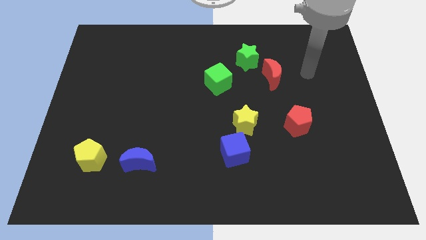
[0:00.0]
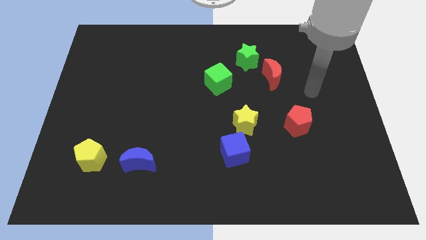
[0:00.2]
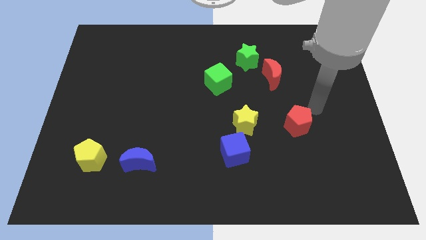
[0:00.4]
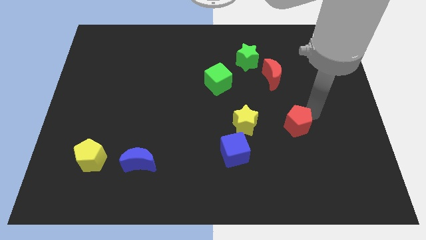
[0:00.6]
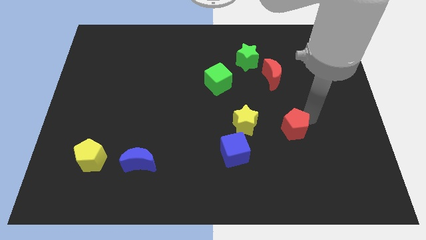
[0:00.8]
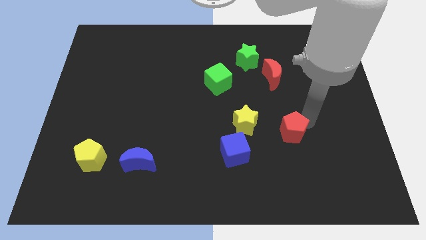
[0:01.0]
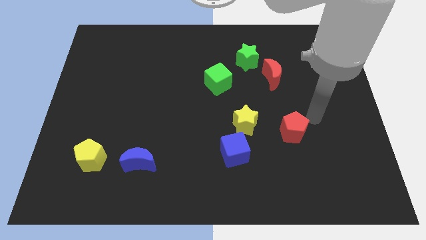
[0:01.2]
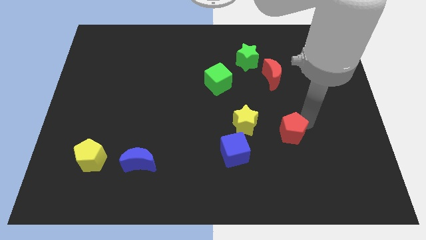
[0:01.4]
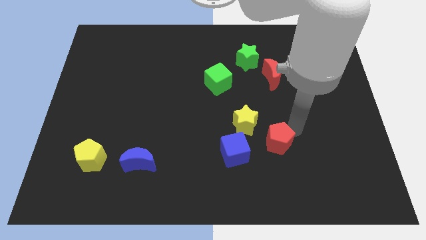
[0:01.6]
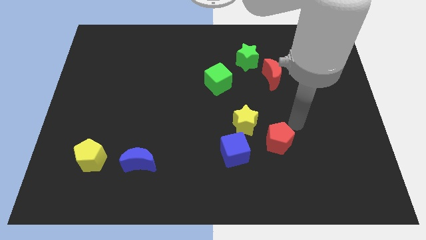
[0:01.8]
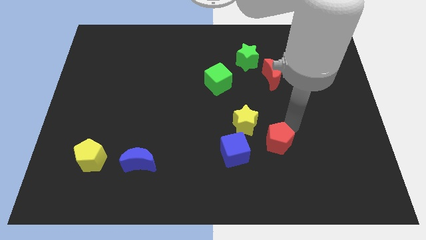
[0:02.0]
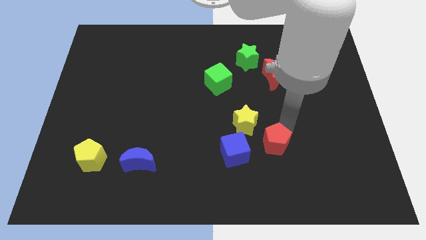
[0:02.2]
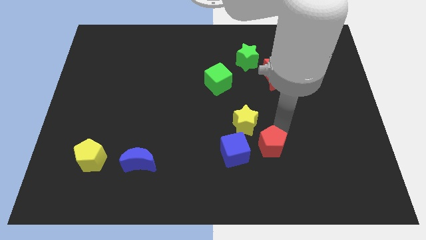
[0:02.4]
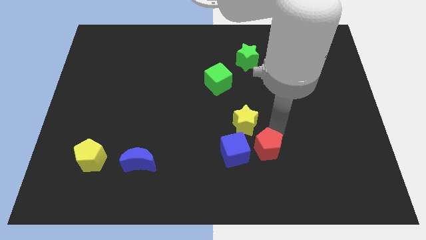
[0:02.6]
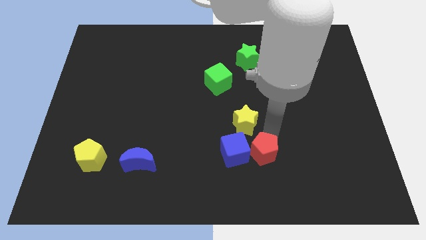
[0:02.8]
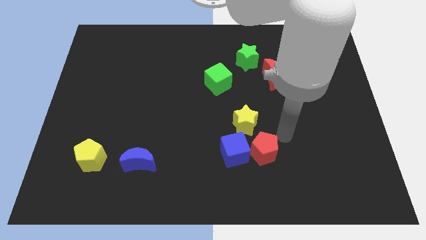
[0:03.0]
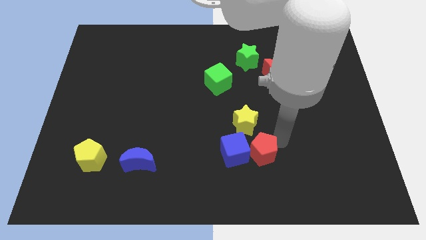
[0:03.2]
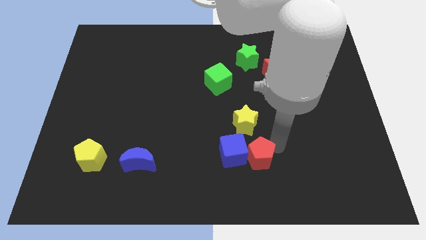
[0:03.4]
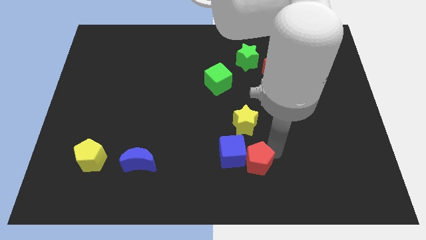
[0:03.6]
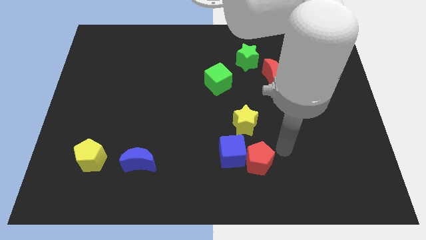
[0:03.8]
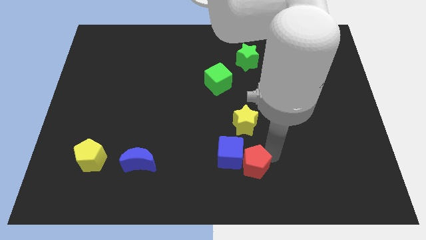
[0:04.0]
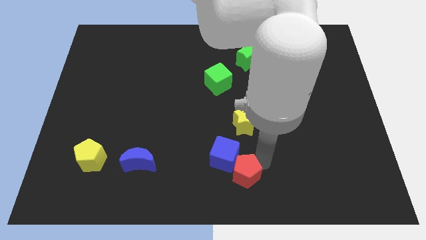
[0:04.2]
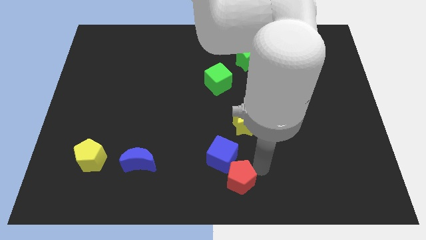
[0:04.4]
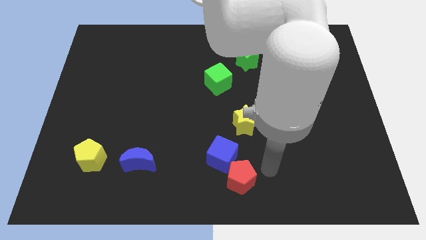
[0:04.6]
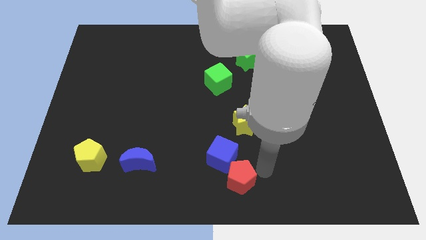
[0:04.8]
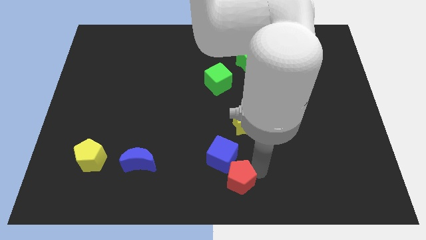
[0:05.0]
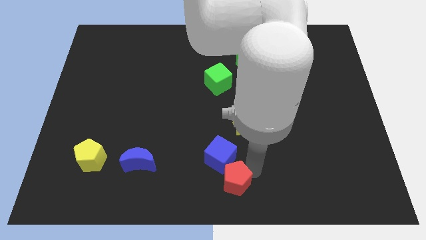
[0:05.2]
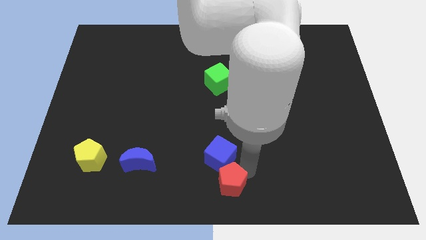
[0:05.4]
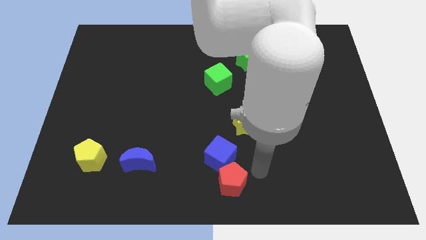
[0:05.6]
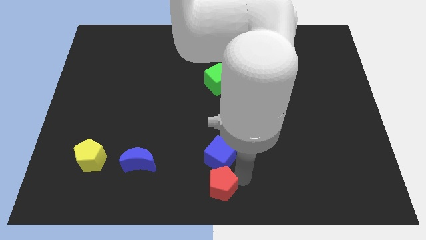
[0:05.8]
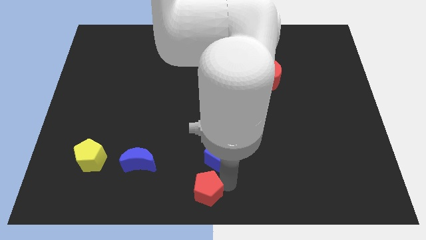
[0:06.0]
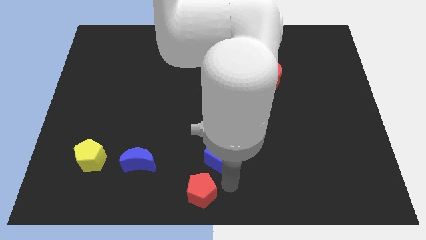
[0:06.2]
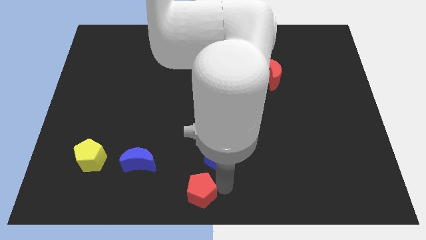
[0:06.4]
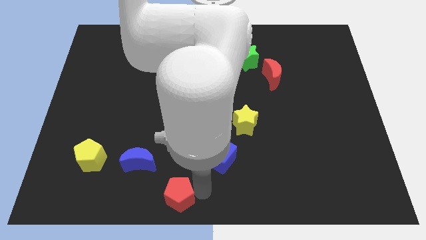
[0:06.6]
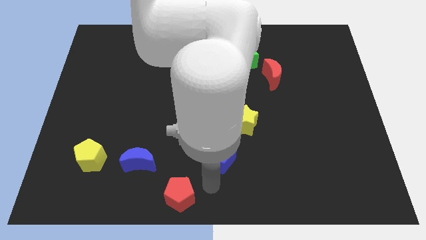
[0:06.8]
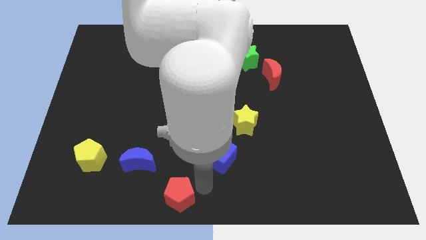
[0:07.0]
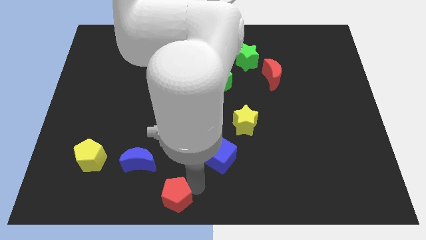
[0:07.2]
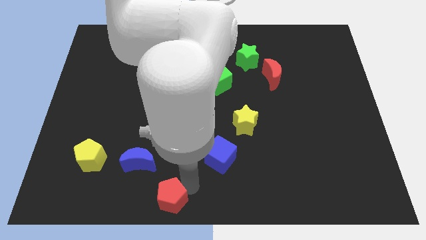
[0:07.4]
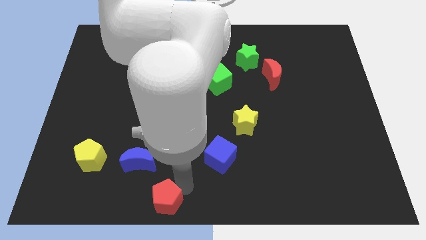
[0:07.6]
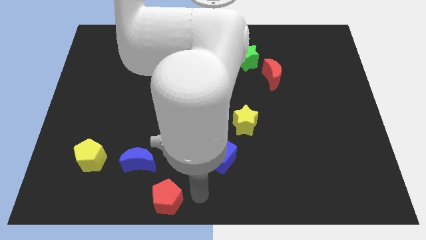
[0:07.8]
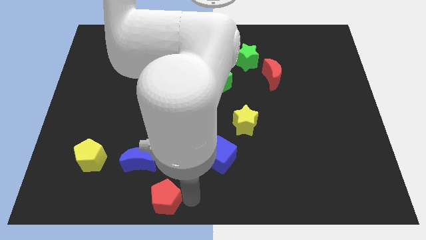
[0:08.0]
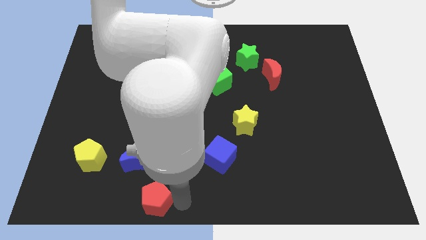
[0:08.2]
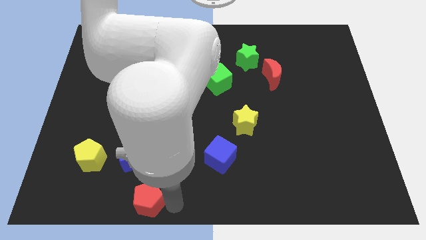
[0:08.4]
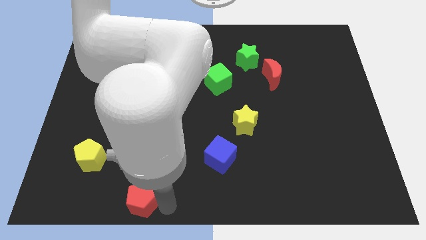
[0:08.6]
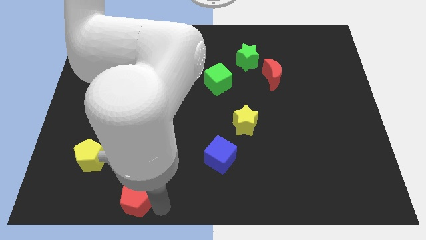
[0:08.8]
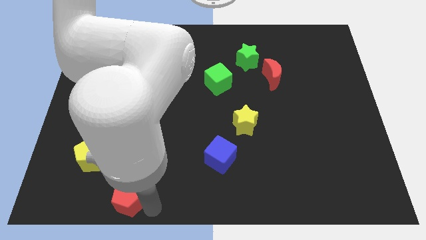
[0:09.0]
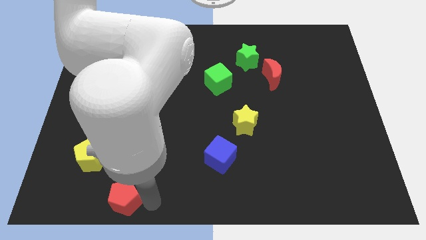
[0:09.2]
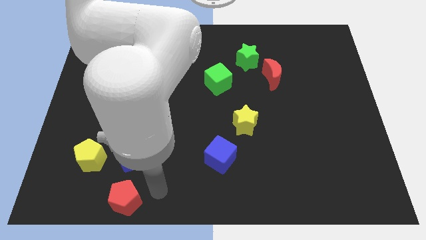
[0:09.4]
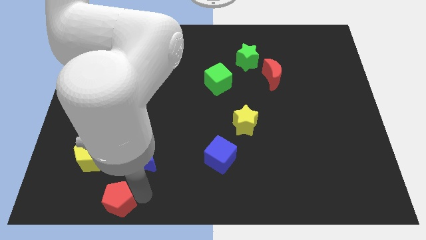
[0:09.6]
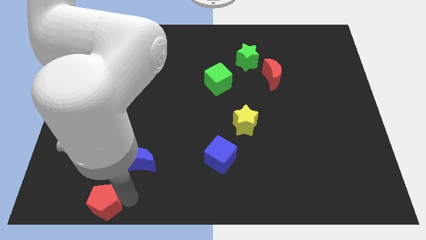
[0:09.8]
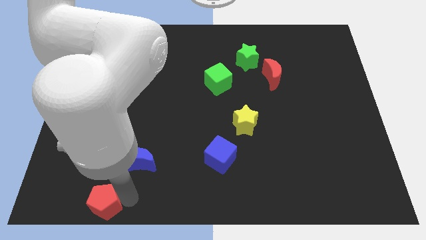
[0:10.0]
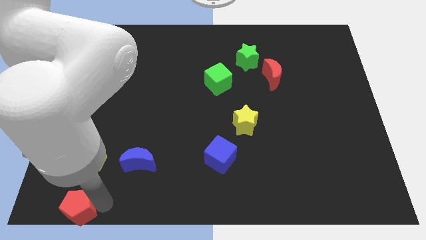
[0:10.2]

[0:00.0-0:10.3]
push the red pentagon to the bottom left corner
